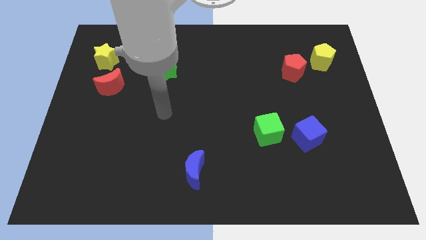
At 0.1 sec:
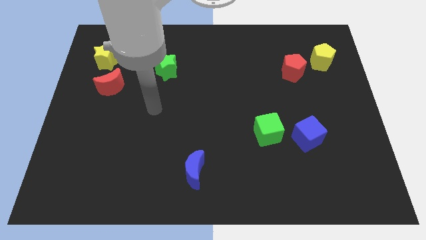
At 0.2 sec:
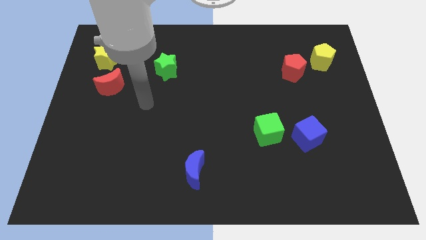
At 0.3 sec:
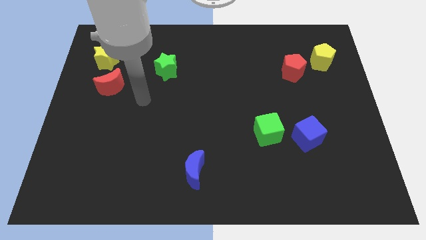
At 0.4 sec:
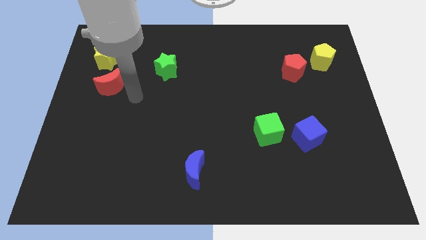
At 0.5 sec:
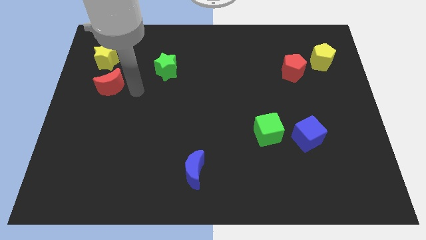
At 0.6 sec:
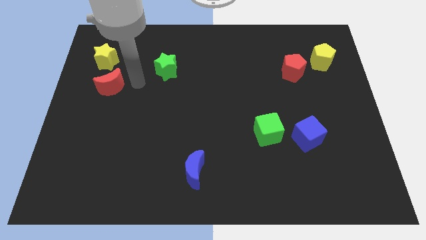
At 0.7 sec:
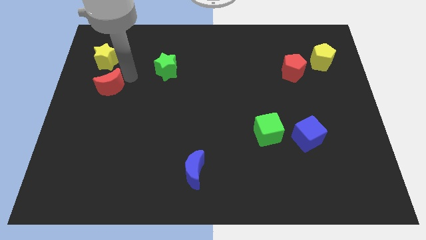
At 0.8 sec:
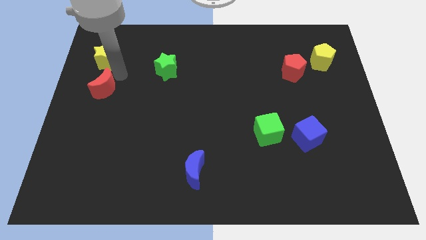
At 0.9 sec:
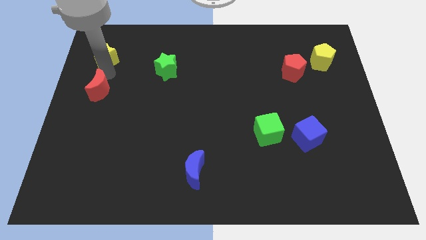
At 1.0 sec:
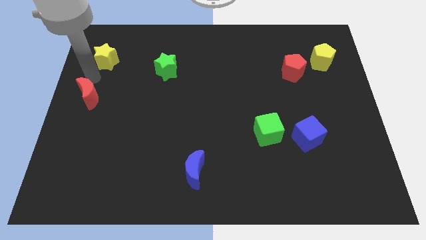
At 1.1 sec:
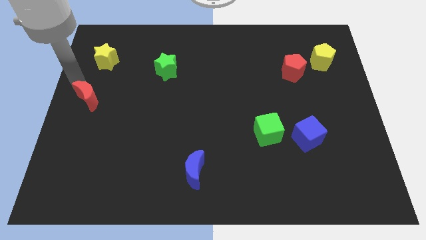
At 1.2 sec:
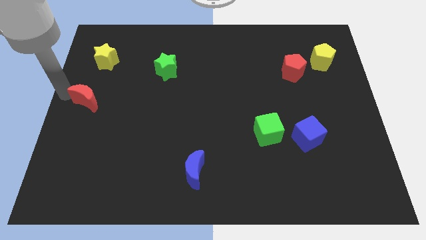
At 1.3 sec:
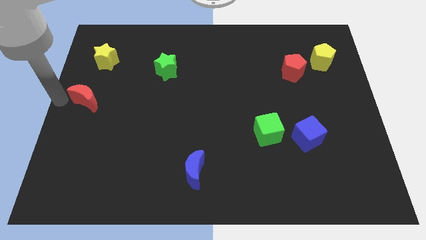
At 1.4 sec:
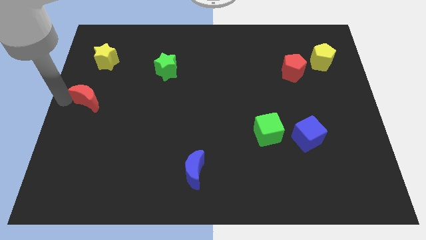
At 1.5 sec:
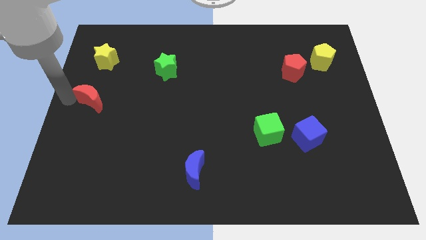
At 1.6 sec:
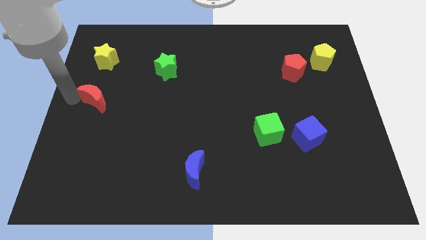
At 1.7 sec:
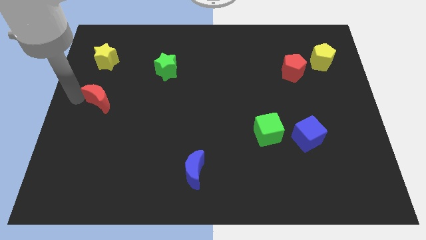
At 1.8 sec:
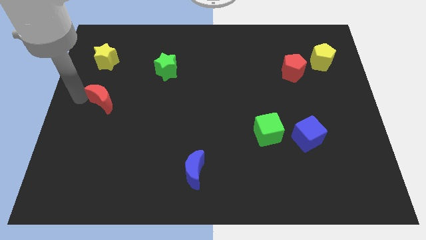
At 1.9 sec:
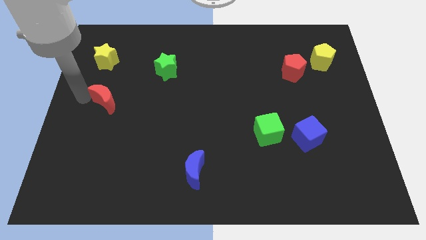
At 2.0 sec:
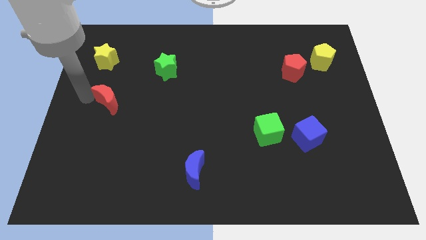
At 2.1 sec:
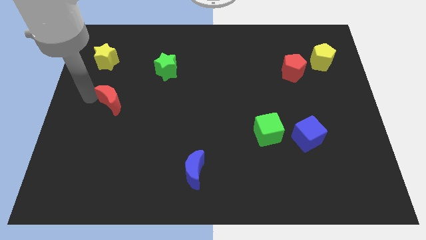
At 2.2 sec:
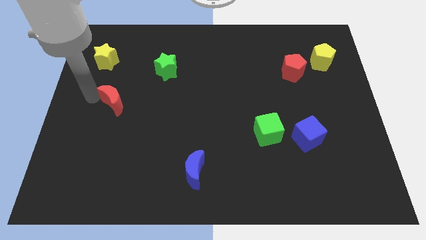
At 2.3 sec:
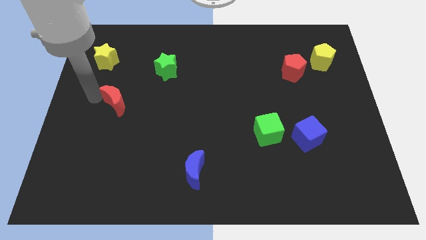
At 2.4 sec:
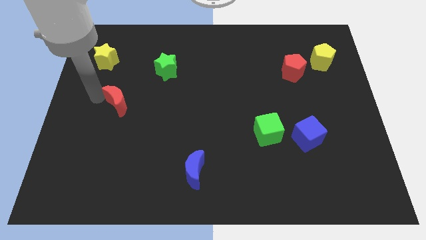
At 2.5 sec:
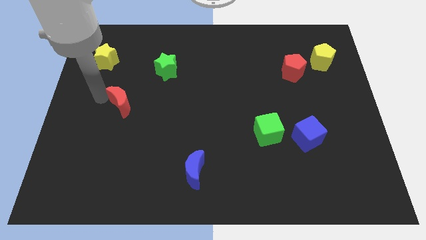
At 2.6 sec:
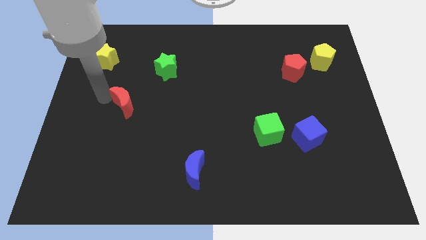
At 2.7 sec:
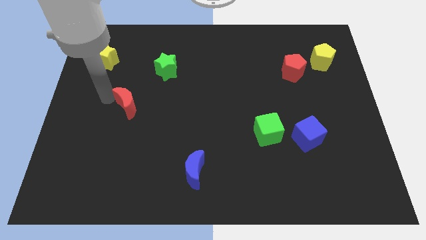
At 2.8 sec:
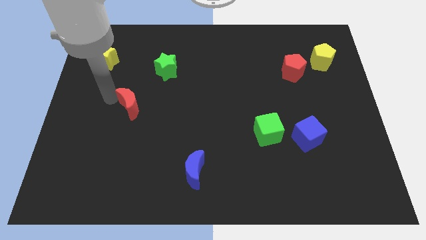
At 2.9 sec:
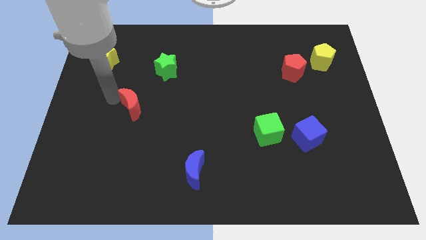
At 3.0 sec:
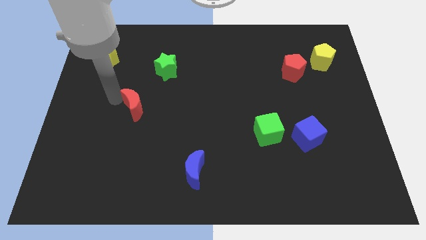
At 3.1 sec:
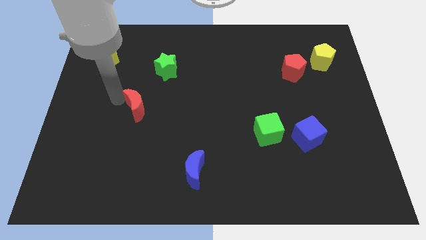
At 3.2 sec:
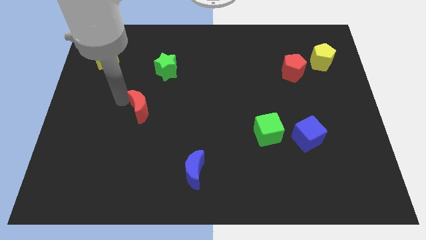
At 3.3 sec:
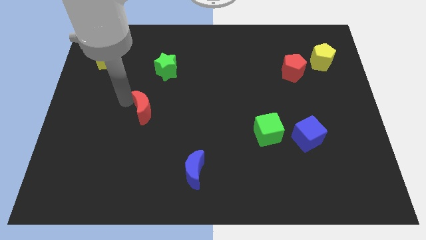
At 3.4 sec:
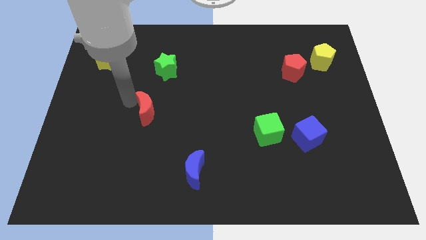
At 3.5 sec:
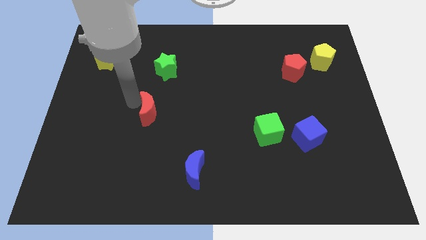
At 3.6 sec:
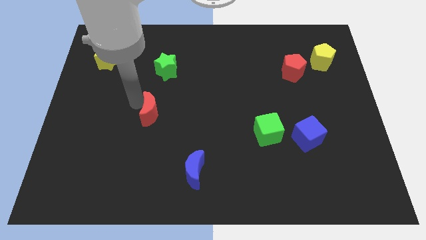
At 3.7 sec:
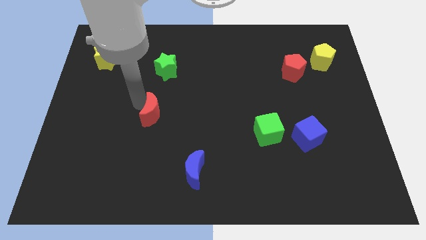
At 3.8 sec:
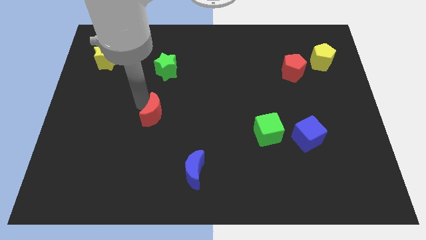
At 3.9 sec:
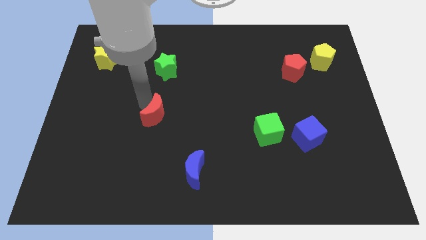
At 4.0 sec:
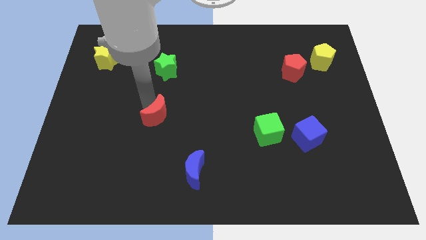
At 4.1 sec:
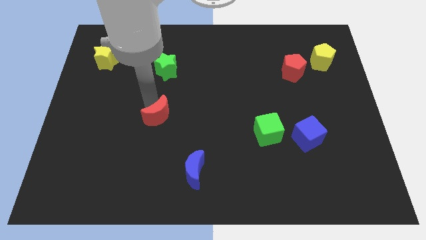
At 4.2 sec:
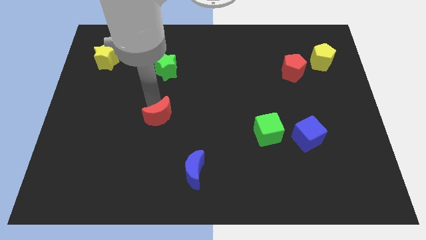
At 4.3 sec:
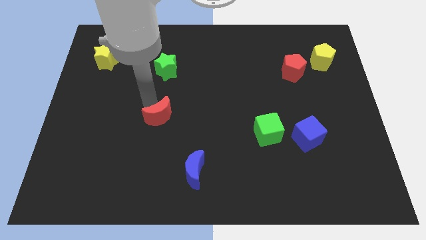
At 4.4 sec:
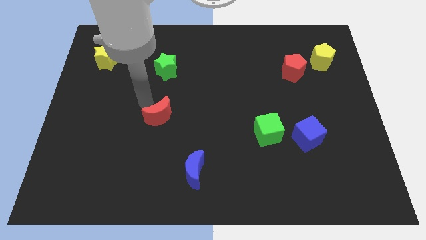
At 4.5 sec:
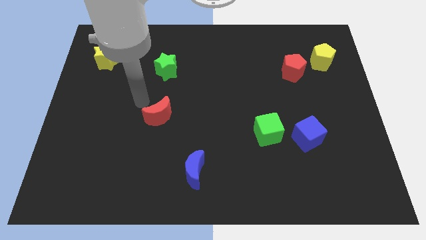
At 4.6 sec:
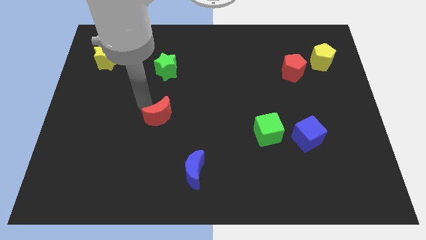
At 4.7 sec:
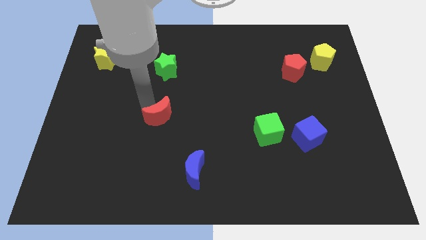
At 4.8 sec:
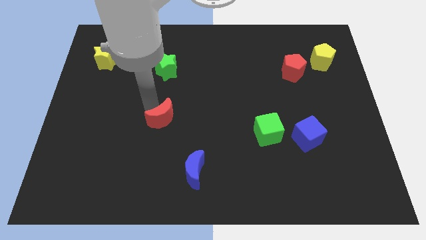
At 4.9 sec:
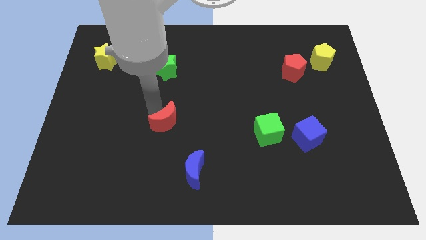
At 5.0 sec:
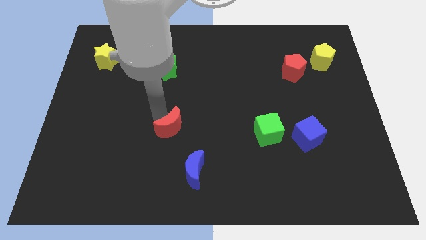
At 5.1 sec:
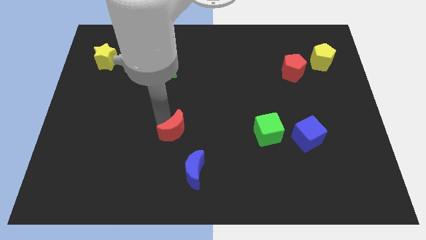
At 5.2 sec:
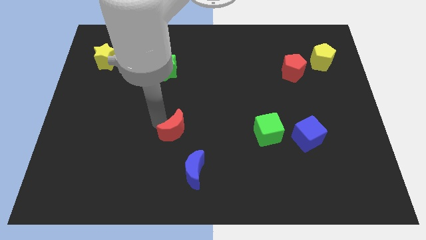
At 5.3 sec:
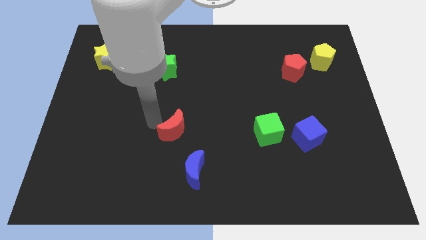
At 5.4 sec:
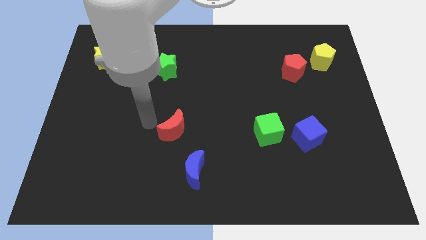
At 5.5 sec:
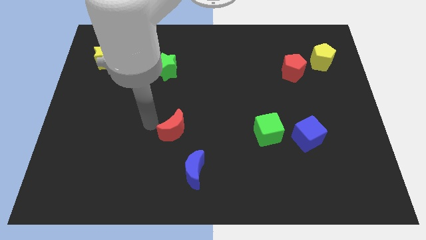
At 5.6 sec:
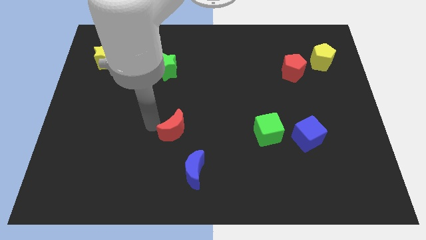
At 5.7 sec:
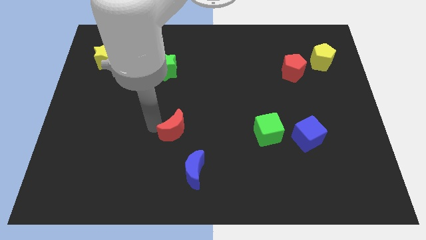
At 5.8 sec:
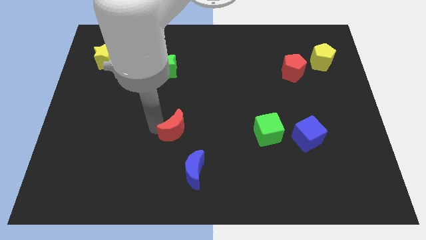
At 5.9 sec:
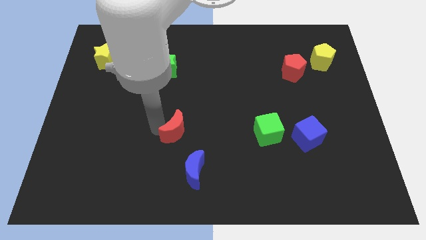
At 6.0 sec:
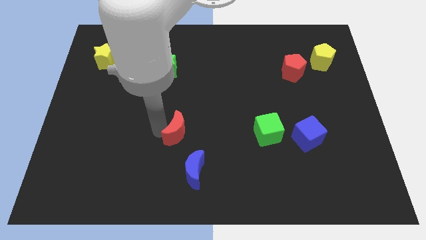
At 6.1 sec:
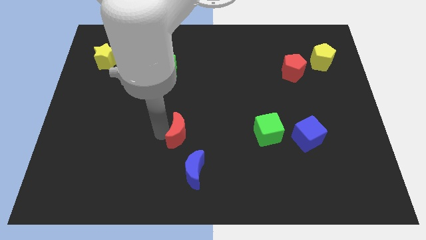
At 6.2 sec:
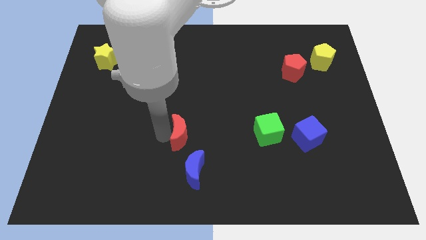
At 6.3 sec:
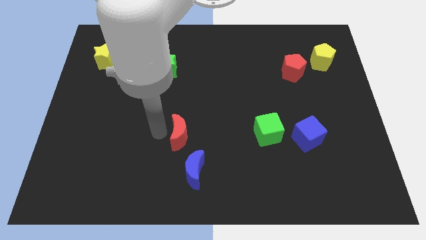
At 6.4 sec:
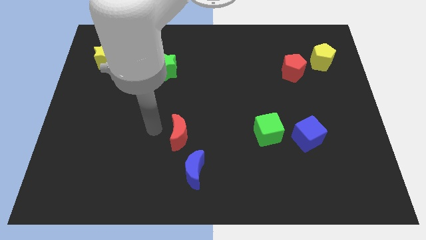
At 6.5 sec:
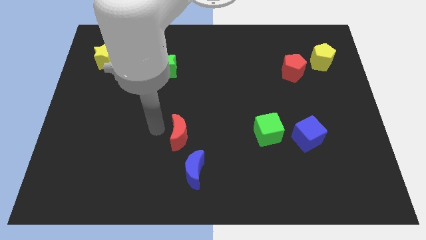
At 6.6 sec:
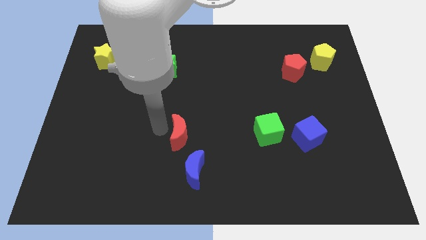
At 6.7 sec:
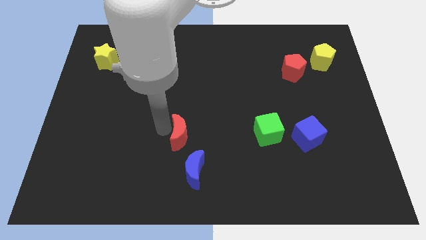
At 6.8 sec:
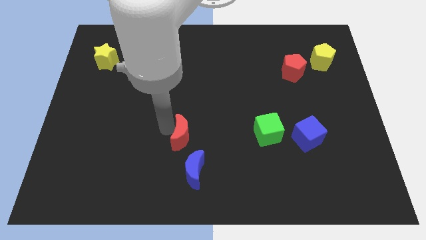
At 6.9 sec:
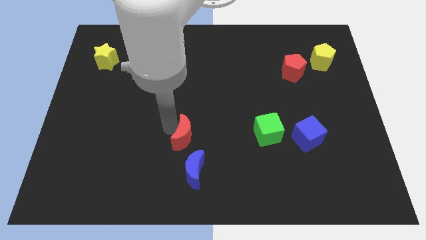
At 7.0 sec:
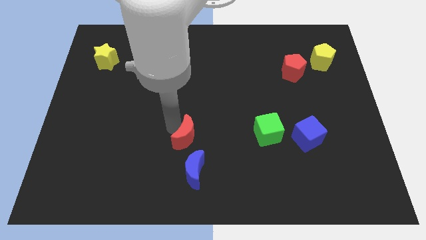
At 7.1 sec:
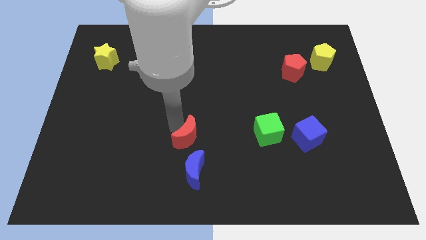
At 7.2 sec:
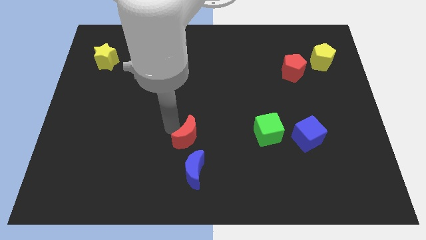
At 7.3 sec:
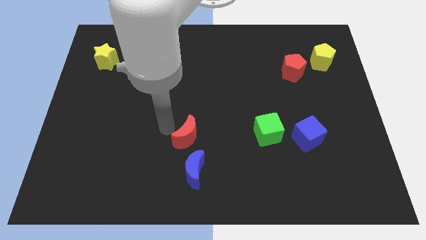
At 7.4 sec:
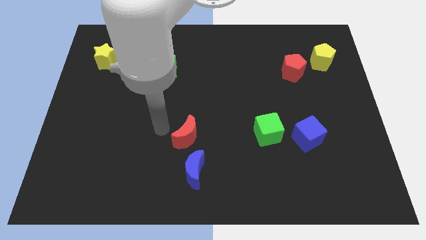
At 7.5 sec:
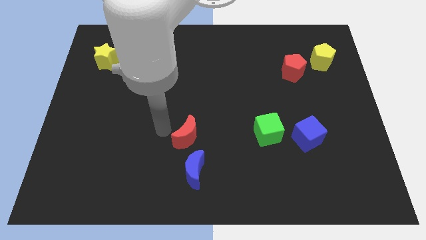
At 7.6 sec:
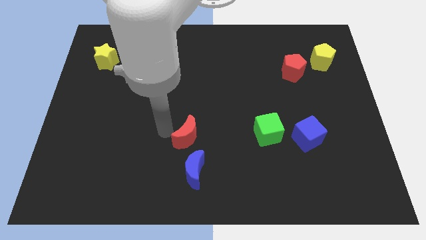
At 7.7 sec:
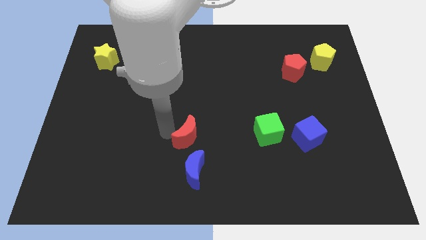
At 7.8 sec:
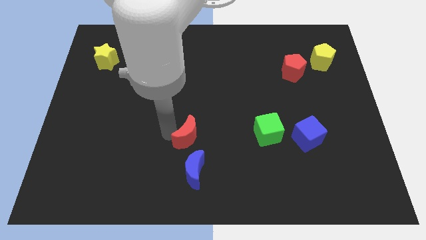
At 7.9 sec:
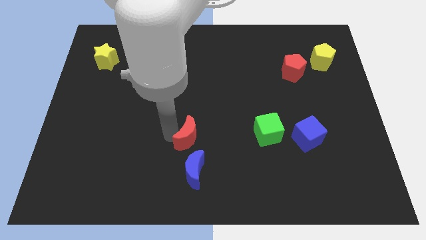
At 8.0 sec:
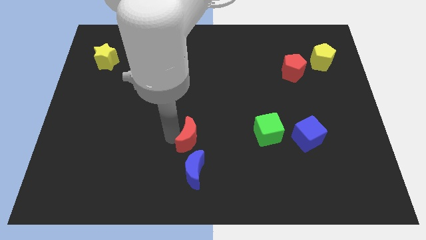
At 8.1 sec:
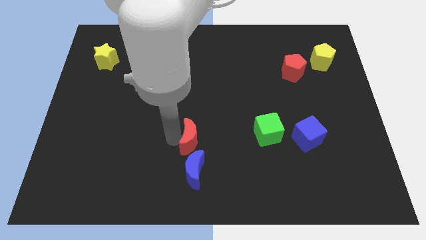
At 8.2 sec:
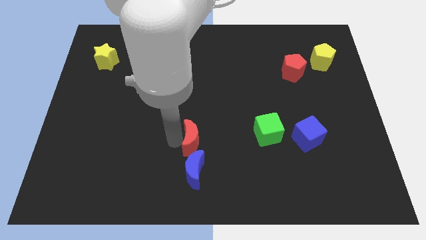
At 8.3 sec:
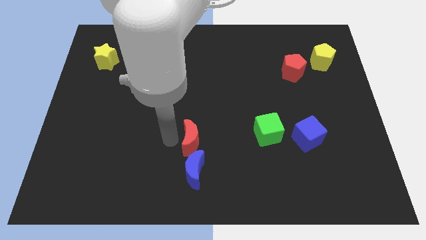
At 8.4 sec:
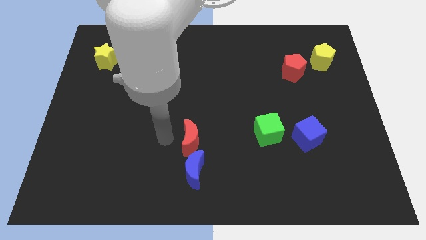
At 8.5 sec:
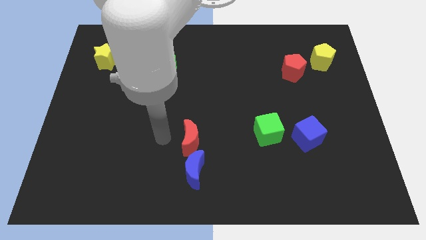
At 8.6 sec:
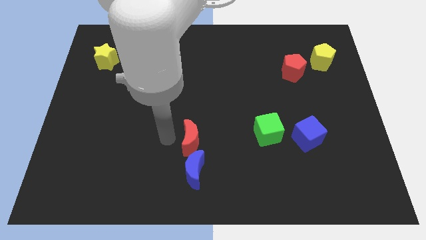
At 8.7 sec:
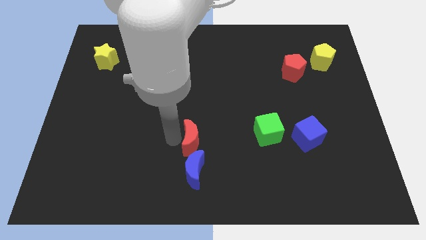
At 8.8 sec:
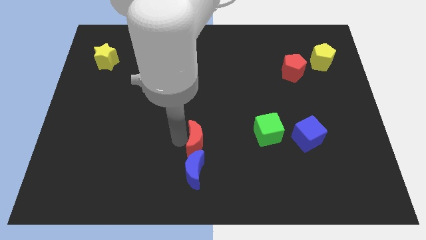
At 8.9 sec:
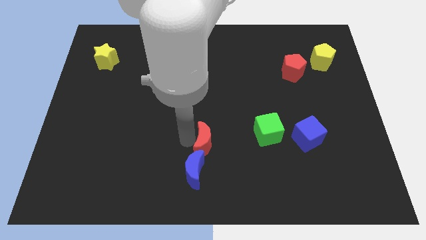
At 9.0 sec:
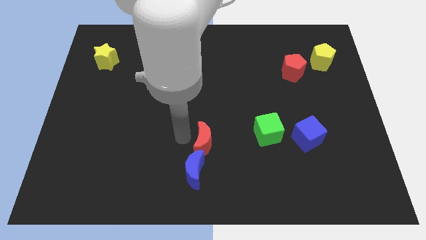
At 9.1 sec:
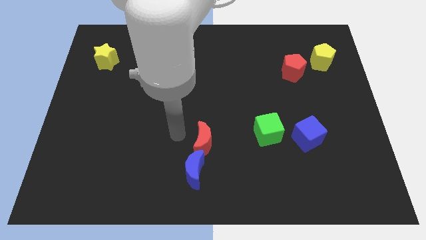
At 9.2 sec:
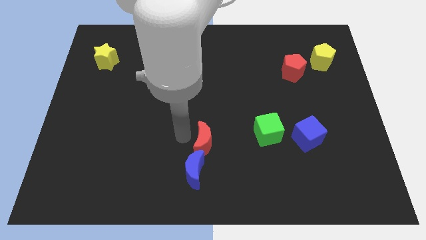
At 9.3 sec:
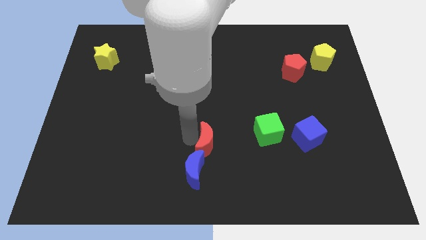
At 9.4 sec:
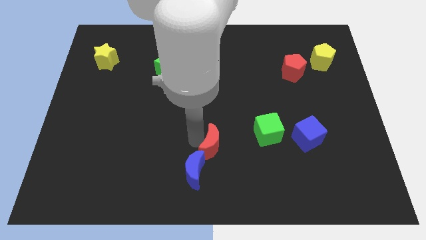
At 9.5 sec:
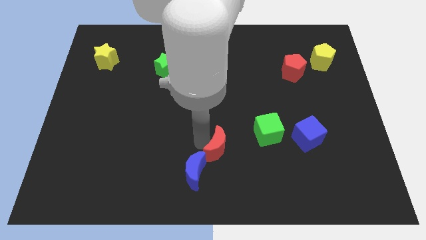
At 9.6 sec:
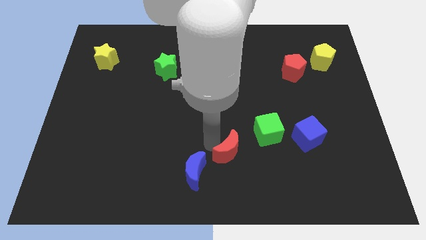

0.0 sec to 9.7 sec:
put the red moon to the right of the blue moon
